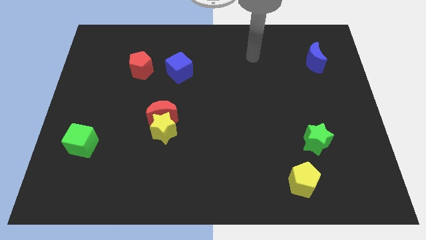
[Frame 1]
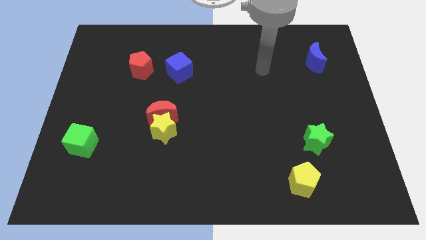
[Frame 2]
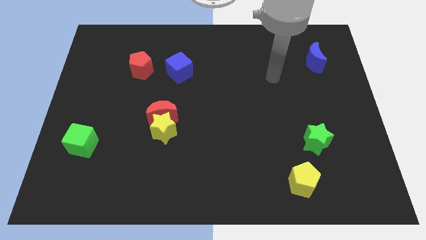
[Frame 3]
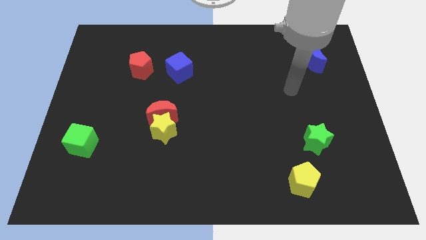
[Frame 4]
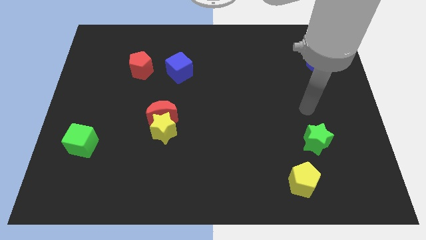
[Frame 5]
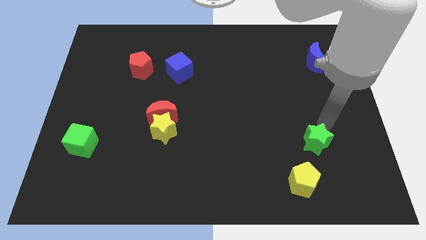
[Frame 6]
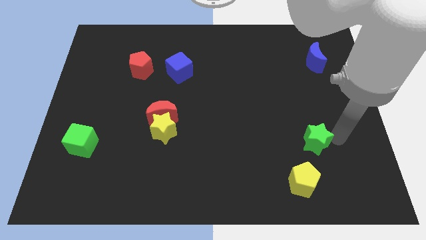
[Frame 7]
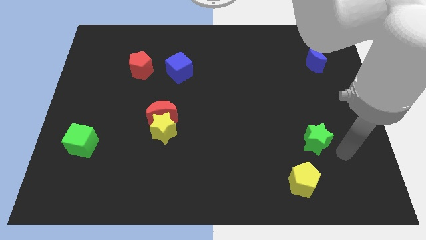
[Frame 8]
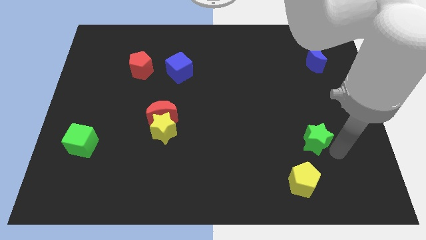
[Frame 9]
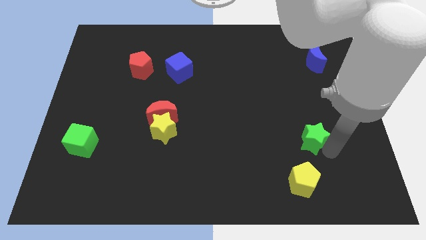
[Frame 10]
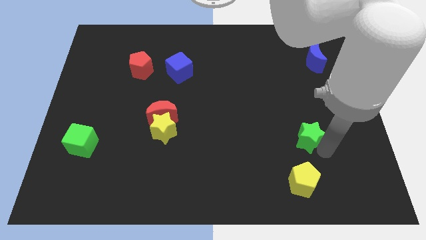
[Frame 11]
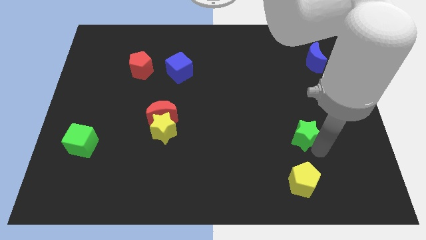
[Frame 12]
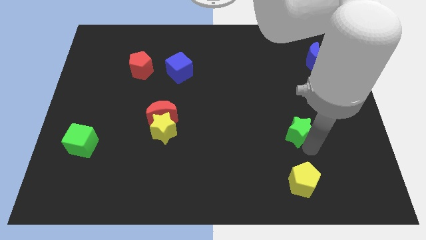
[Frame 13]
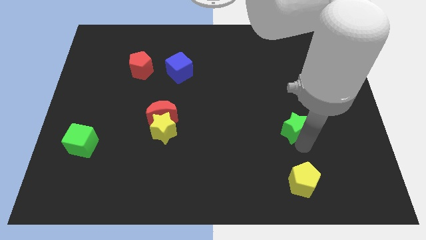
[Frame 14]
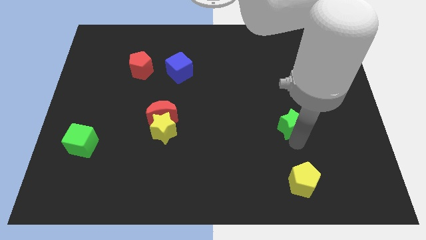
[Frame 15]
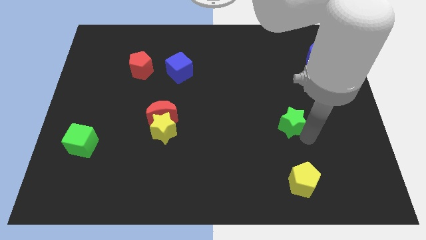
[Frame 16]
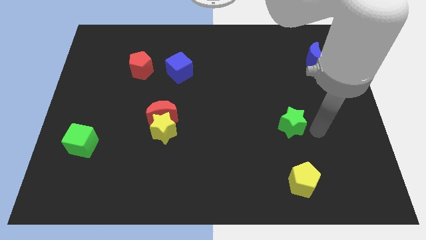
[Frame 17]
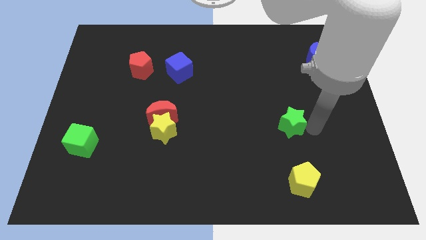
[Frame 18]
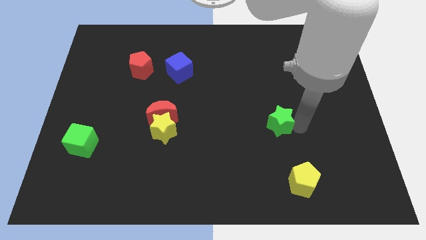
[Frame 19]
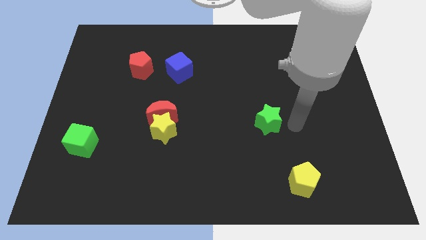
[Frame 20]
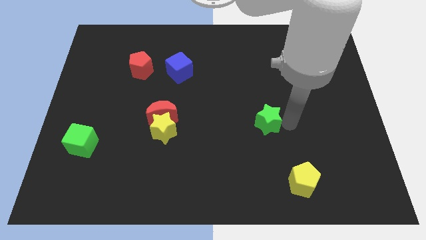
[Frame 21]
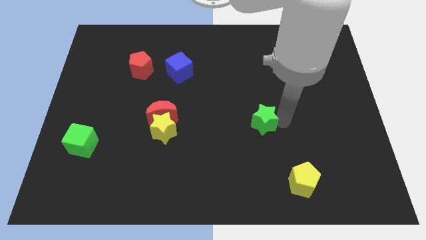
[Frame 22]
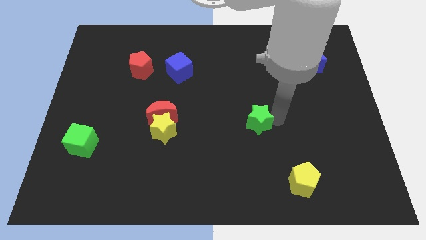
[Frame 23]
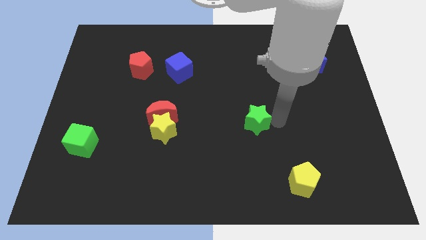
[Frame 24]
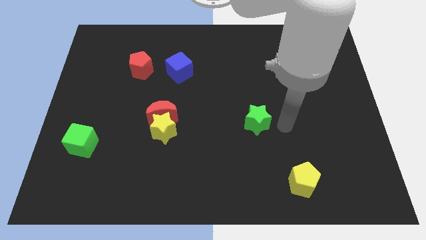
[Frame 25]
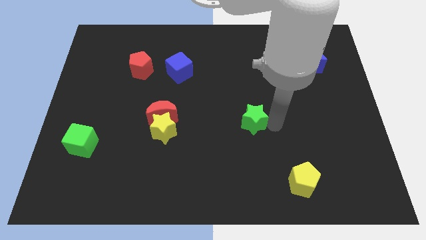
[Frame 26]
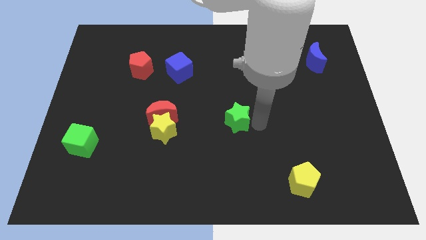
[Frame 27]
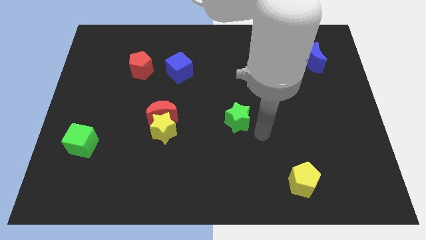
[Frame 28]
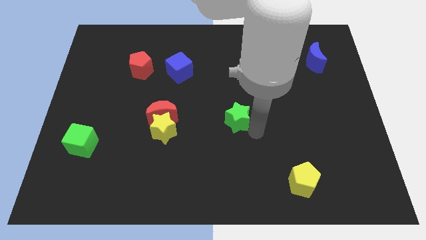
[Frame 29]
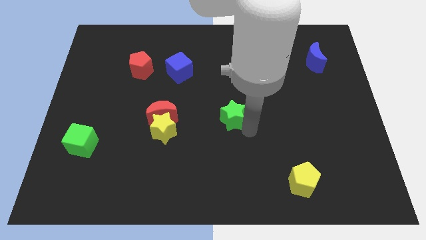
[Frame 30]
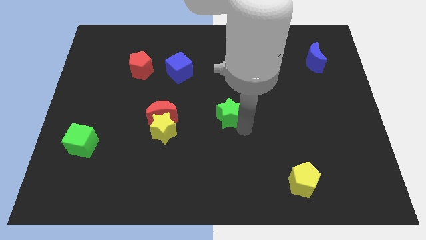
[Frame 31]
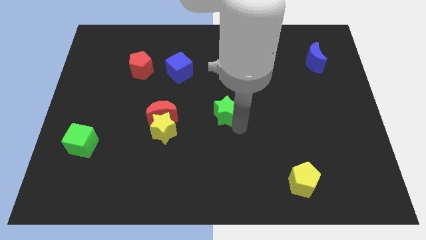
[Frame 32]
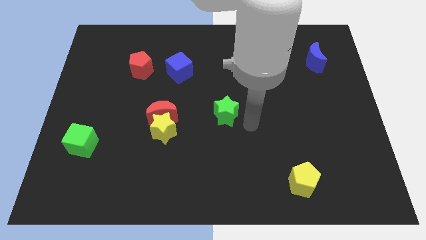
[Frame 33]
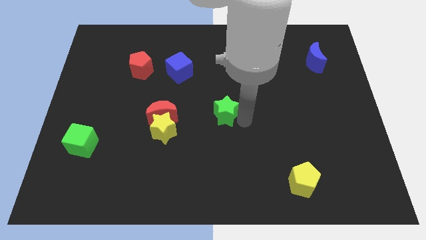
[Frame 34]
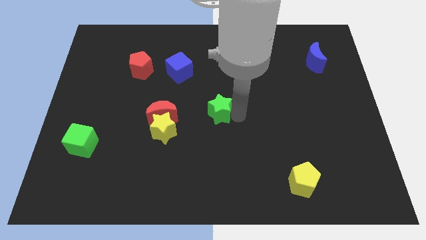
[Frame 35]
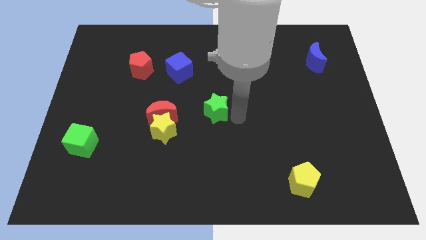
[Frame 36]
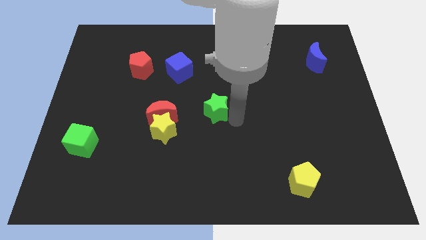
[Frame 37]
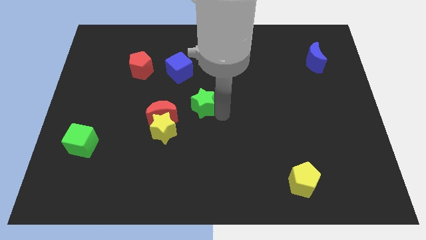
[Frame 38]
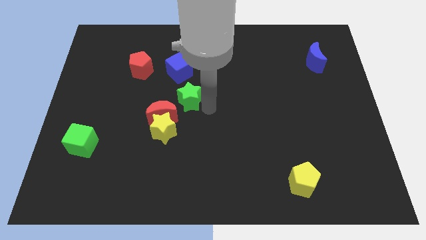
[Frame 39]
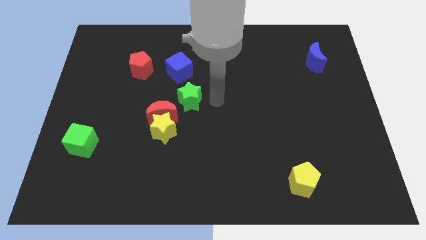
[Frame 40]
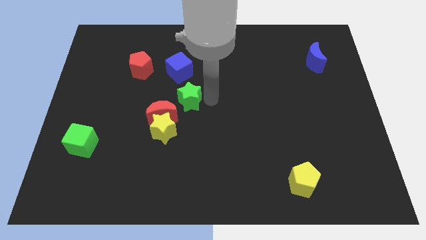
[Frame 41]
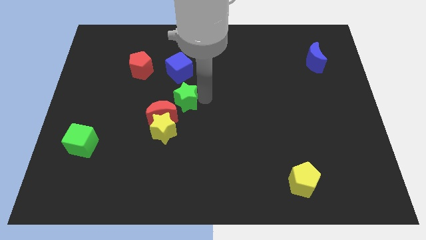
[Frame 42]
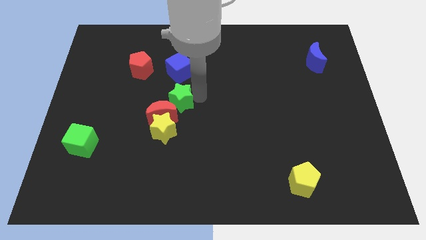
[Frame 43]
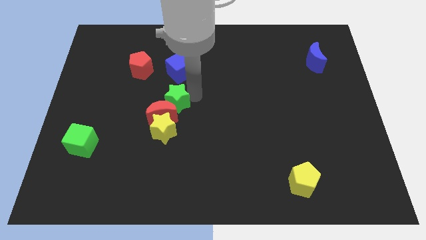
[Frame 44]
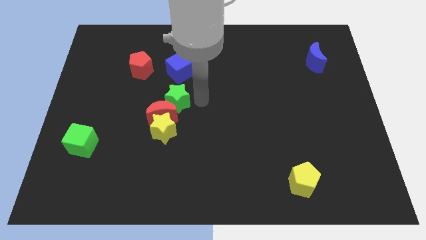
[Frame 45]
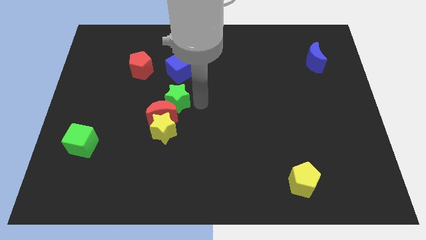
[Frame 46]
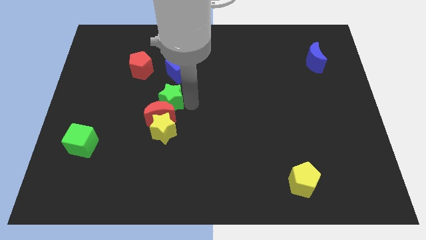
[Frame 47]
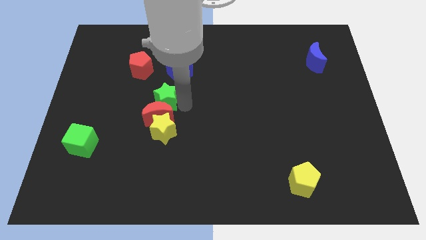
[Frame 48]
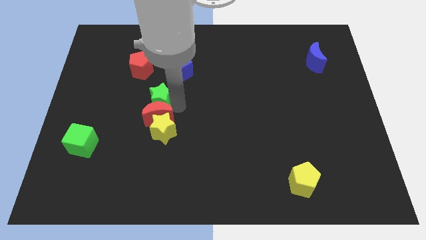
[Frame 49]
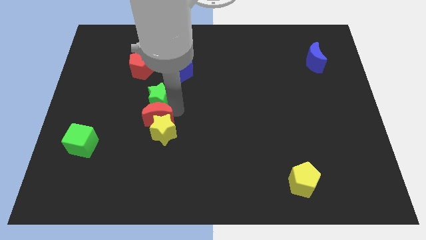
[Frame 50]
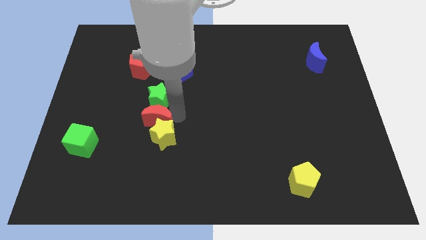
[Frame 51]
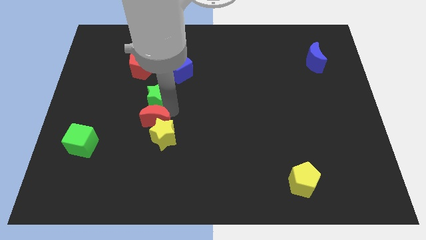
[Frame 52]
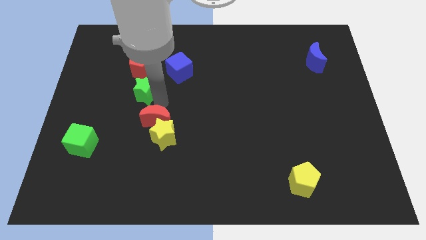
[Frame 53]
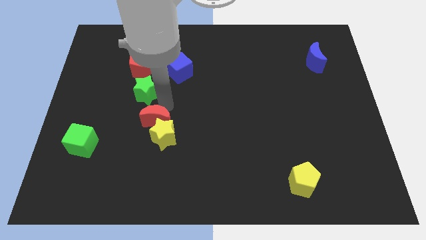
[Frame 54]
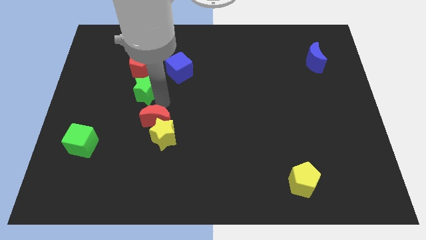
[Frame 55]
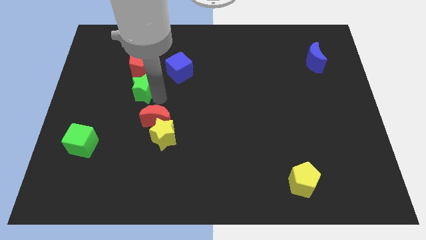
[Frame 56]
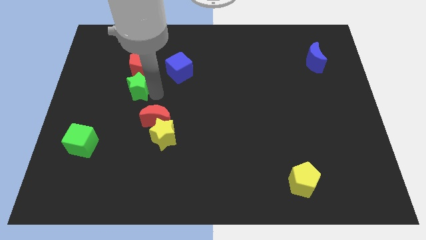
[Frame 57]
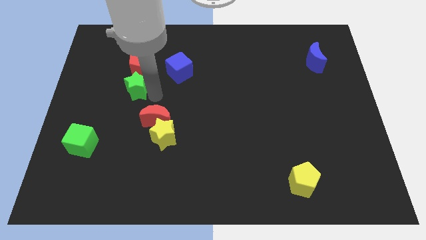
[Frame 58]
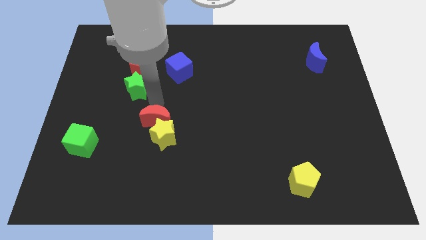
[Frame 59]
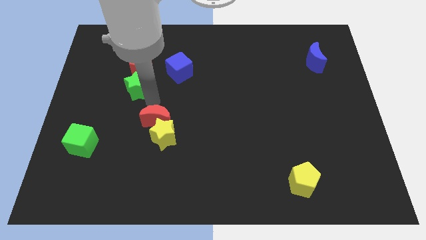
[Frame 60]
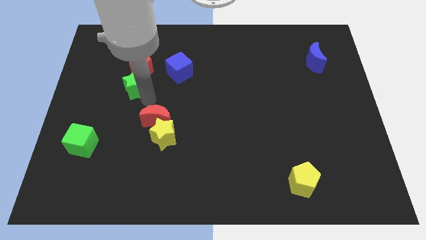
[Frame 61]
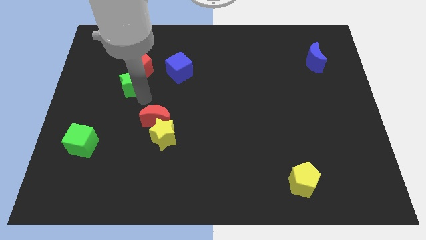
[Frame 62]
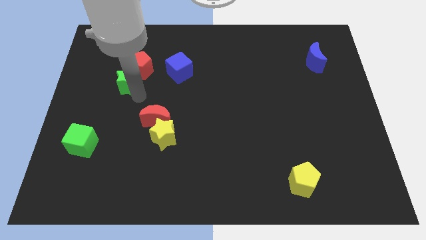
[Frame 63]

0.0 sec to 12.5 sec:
put the green star left of the blue cube

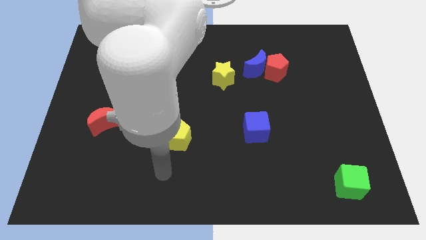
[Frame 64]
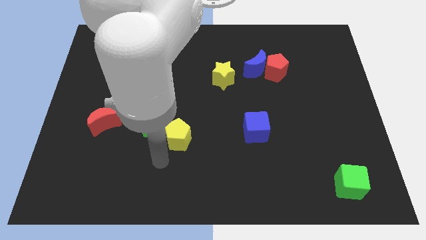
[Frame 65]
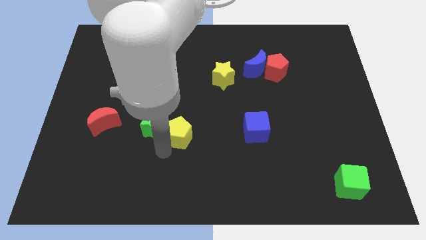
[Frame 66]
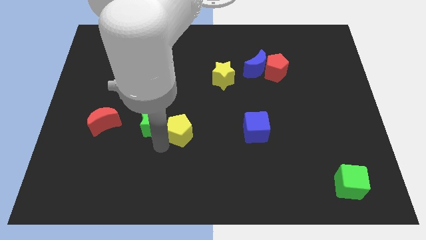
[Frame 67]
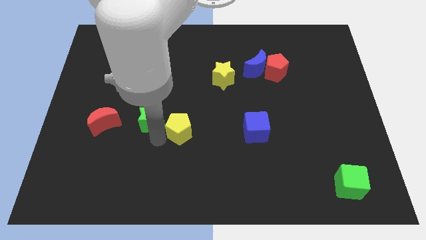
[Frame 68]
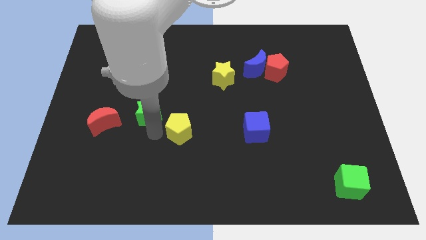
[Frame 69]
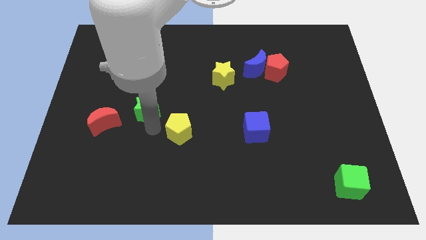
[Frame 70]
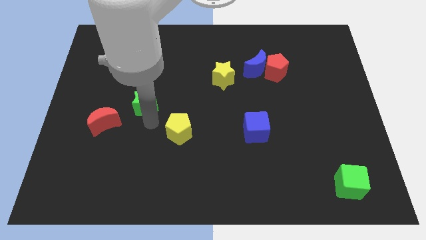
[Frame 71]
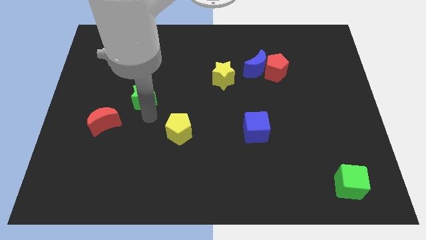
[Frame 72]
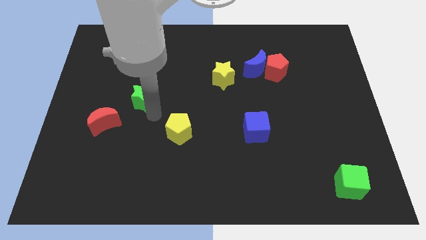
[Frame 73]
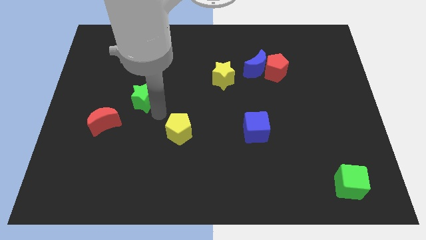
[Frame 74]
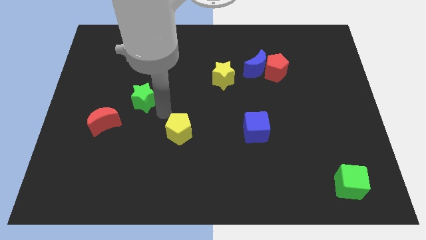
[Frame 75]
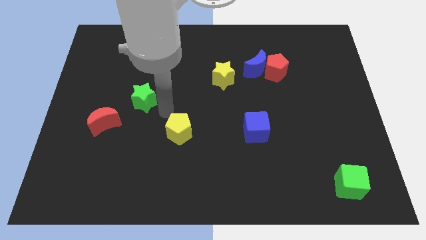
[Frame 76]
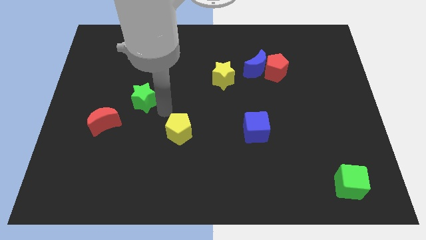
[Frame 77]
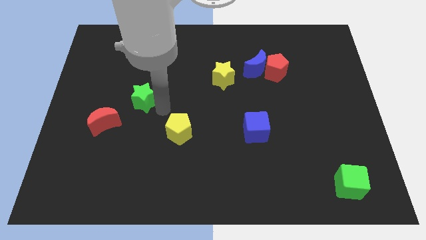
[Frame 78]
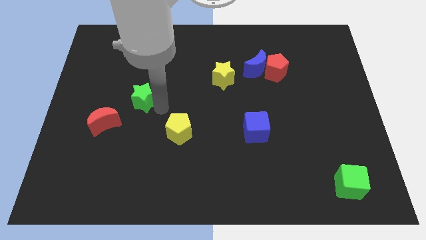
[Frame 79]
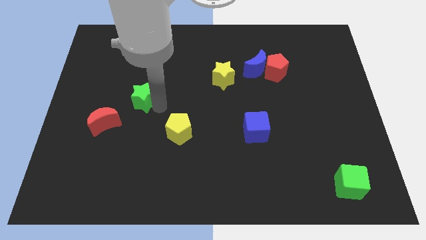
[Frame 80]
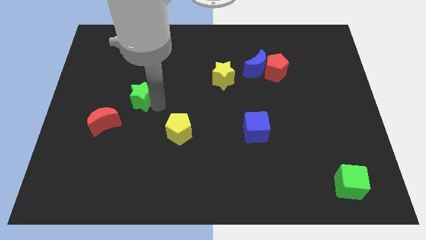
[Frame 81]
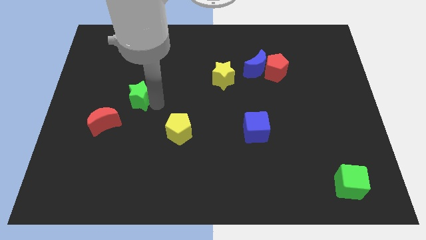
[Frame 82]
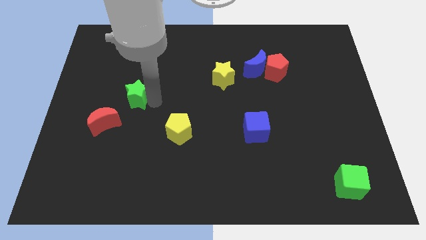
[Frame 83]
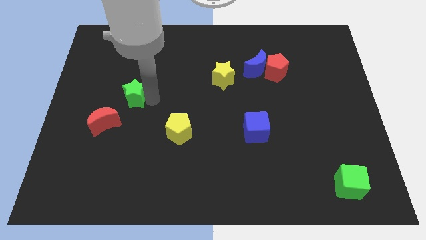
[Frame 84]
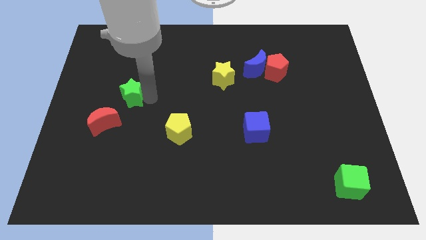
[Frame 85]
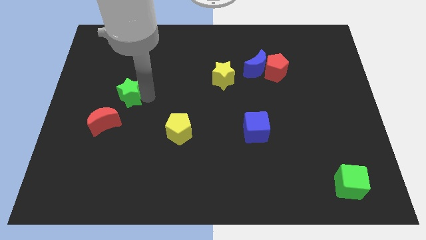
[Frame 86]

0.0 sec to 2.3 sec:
slide the green star to the top side of the red moon
